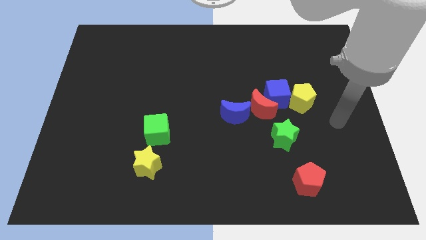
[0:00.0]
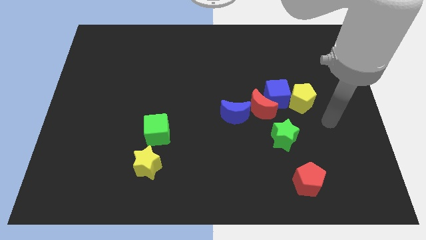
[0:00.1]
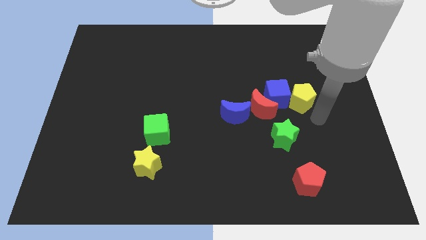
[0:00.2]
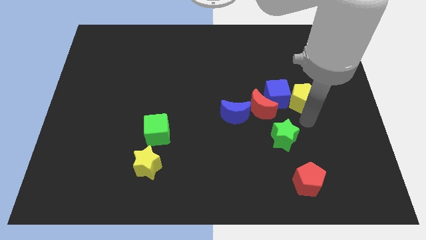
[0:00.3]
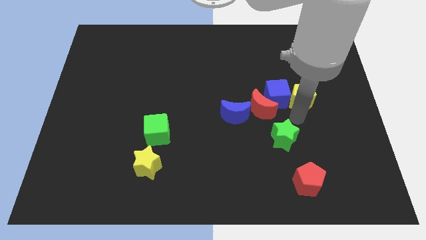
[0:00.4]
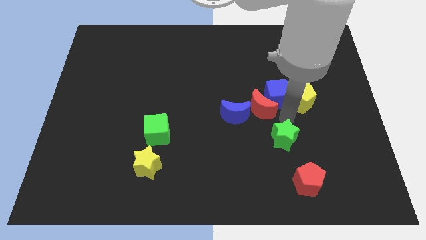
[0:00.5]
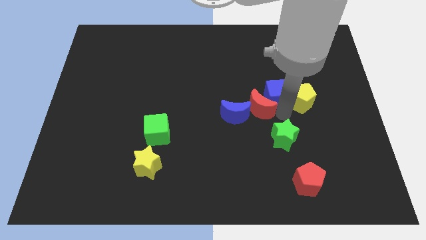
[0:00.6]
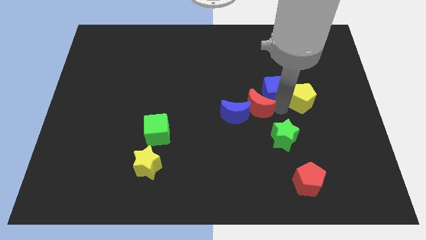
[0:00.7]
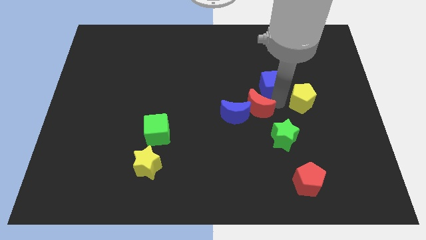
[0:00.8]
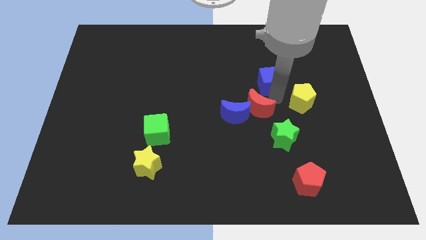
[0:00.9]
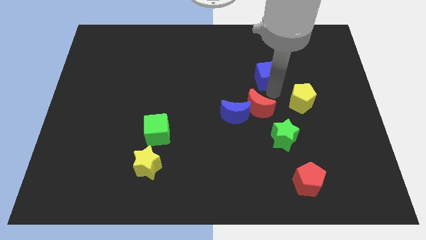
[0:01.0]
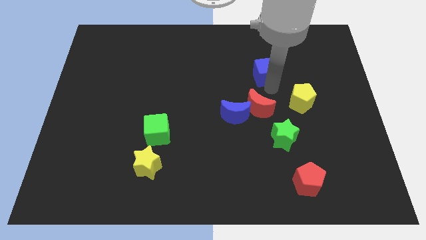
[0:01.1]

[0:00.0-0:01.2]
pull the blue cube apart from the red moon and yellow pentagon

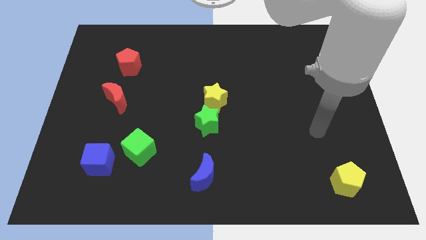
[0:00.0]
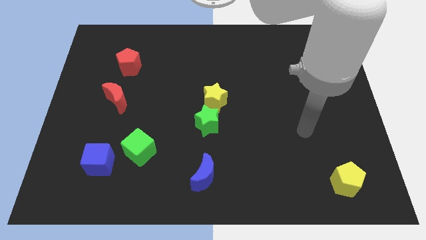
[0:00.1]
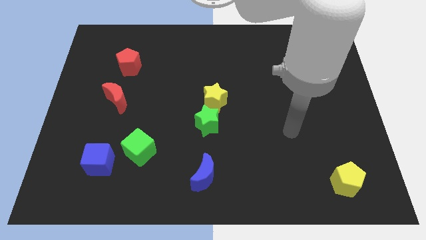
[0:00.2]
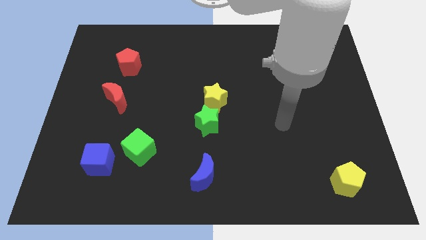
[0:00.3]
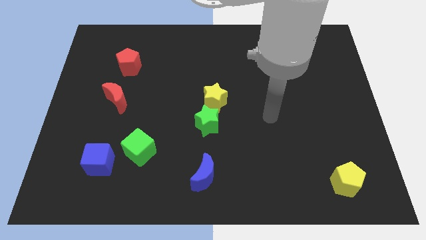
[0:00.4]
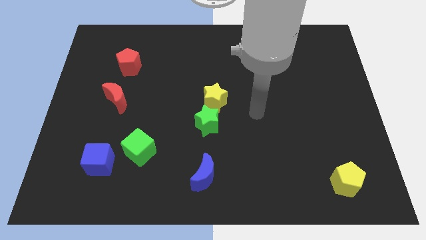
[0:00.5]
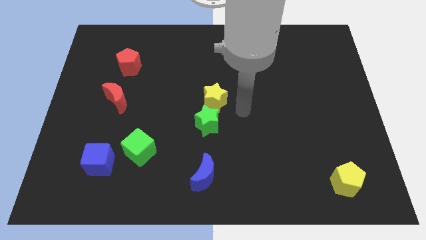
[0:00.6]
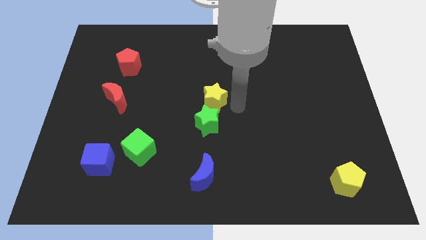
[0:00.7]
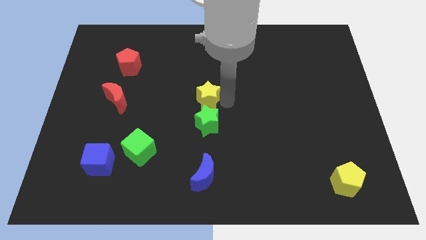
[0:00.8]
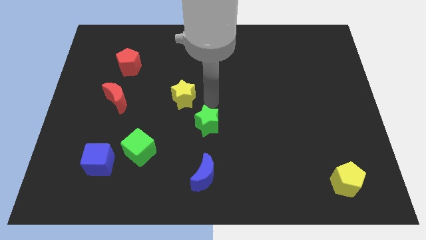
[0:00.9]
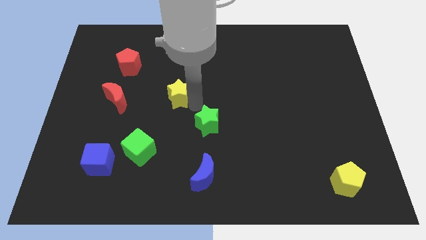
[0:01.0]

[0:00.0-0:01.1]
pull the green star apart from the yellow star

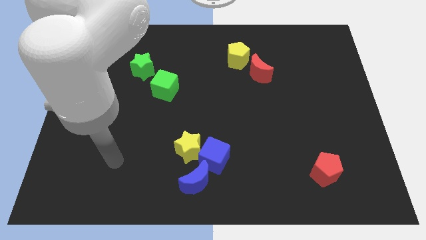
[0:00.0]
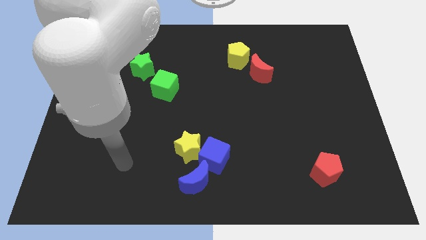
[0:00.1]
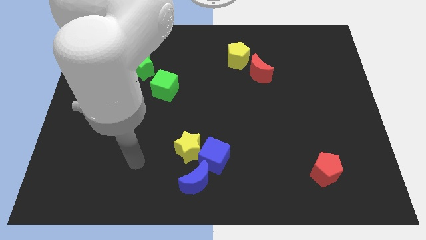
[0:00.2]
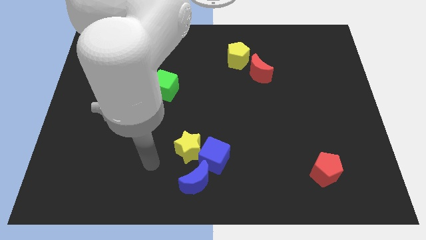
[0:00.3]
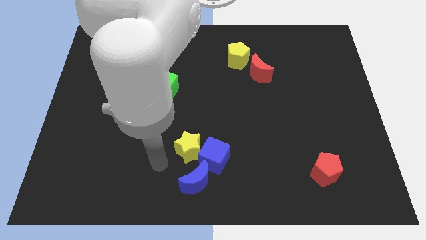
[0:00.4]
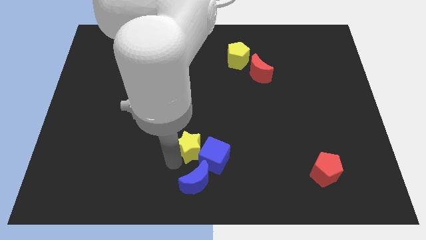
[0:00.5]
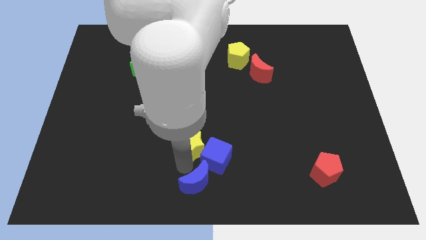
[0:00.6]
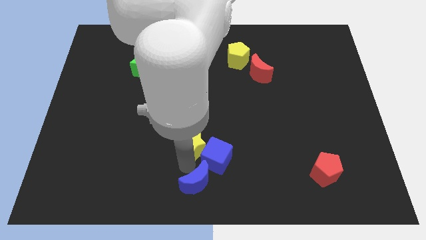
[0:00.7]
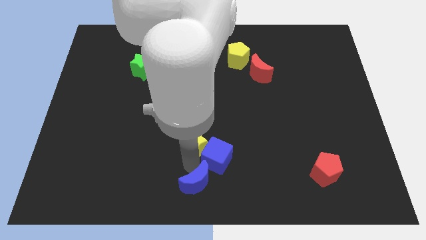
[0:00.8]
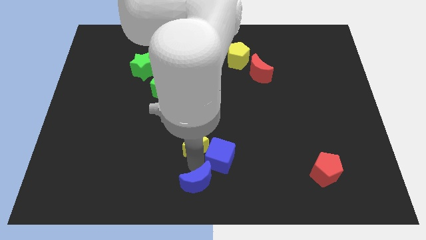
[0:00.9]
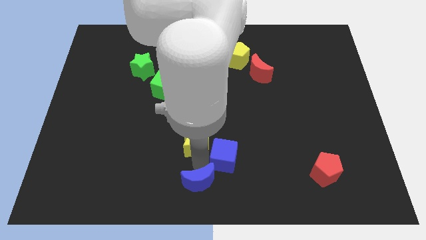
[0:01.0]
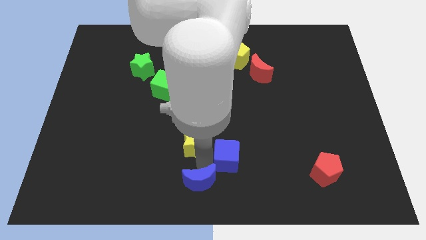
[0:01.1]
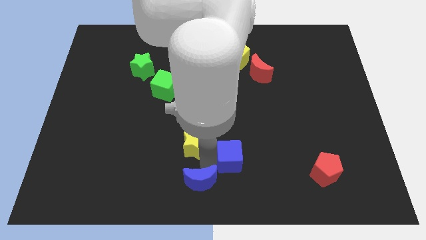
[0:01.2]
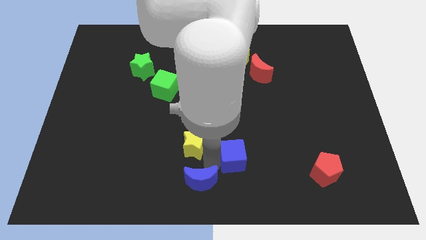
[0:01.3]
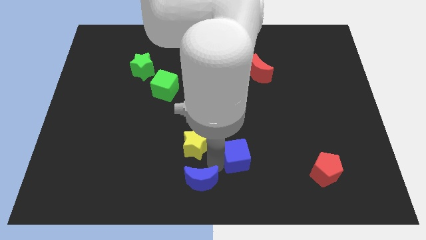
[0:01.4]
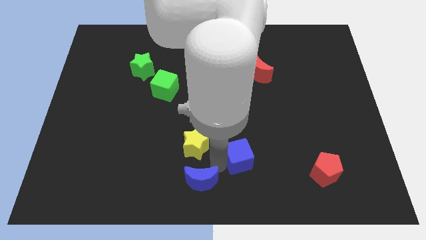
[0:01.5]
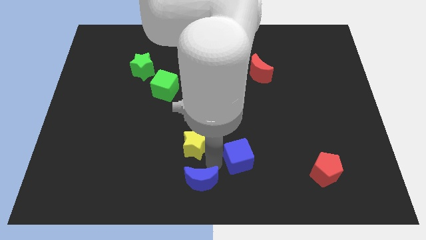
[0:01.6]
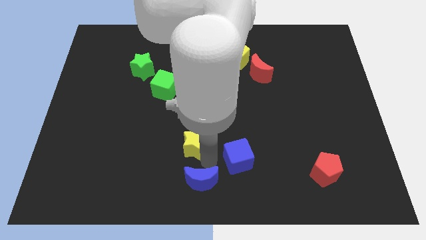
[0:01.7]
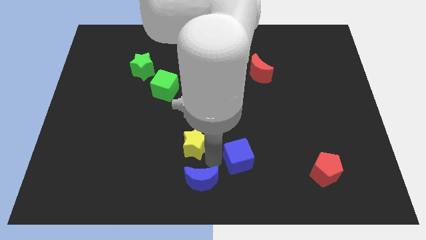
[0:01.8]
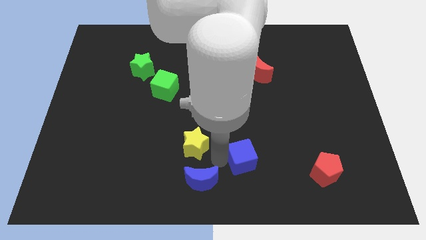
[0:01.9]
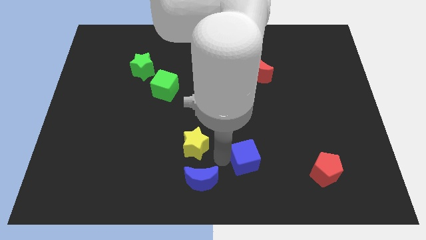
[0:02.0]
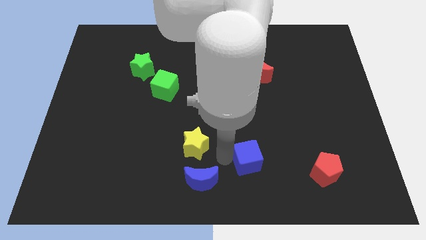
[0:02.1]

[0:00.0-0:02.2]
separate the blue cube from the yellow star and blue moon

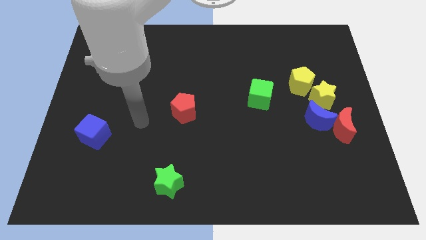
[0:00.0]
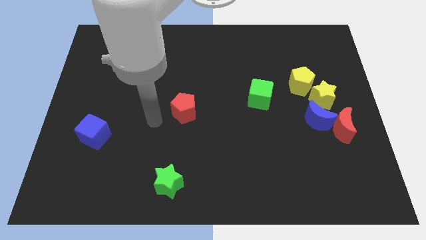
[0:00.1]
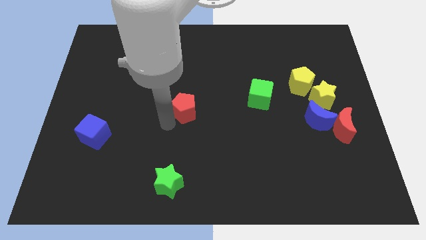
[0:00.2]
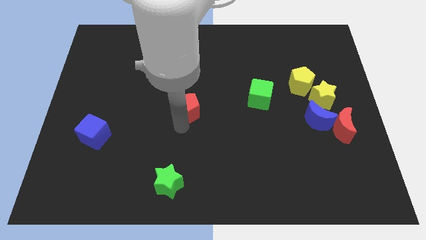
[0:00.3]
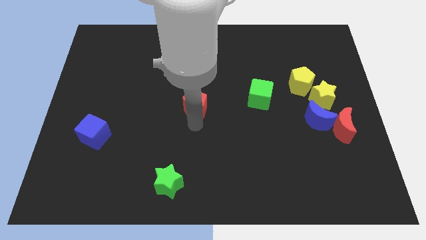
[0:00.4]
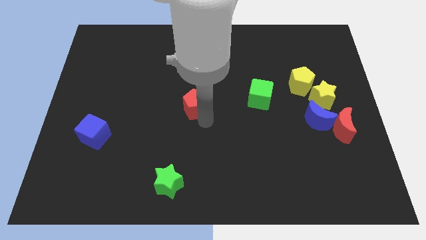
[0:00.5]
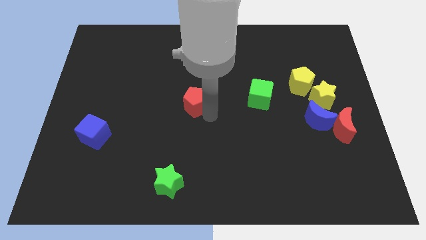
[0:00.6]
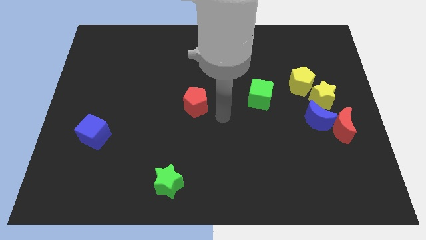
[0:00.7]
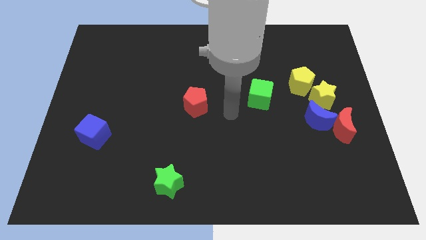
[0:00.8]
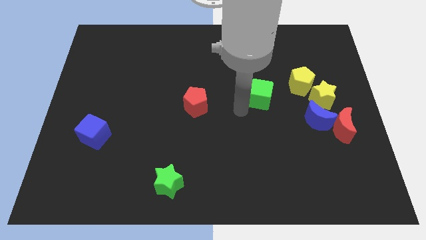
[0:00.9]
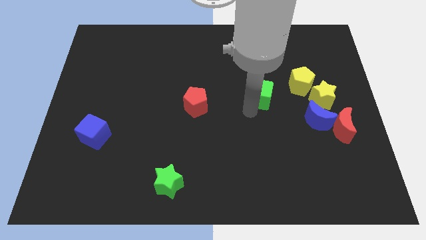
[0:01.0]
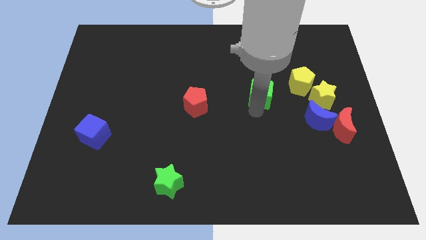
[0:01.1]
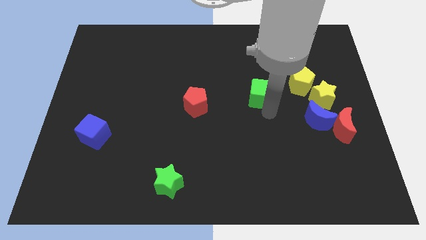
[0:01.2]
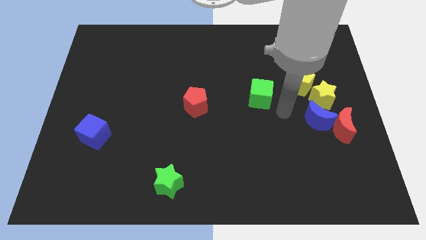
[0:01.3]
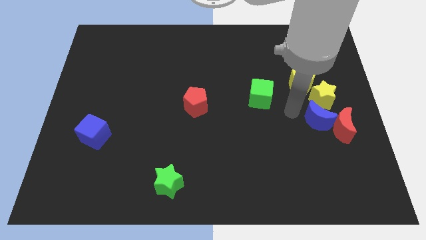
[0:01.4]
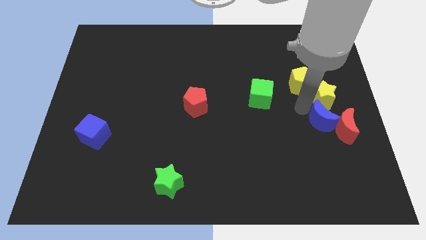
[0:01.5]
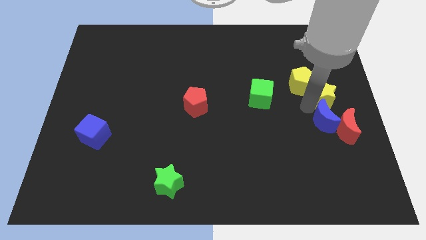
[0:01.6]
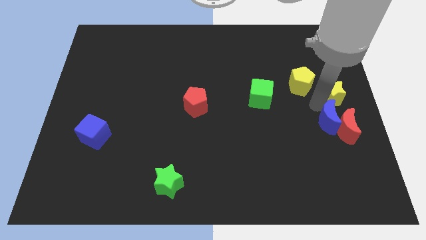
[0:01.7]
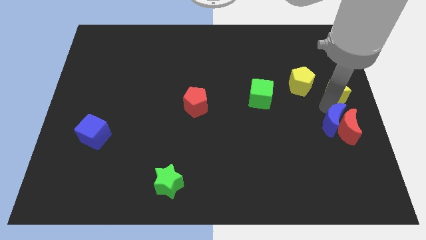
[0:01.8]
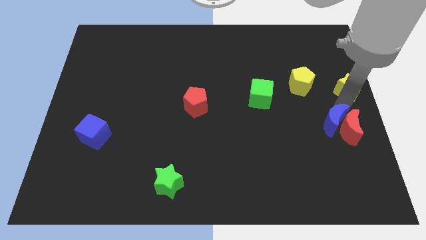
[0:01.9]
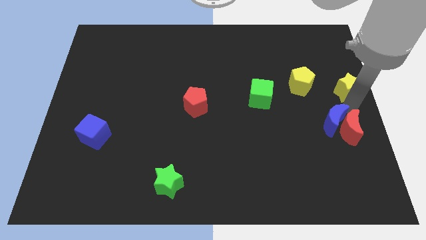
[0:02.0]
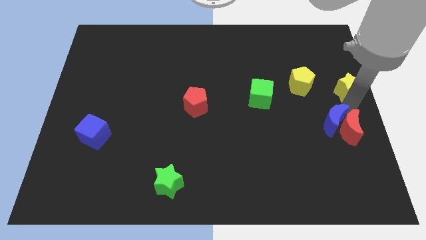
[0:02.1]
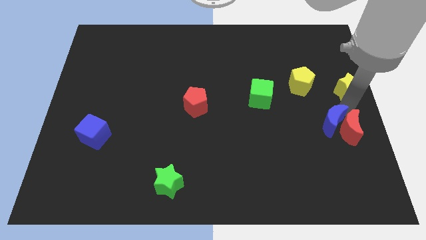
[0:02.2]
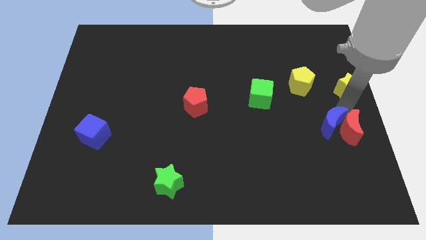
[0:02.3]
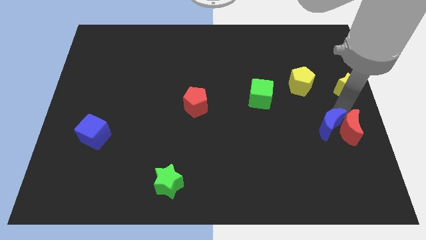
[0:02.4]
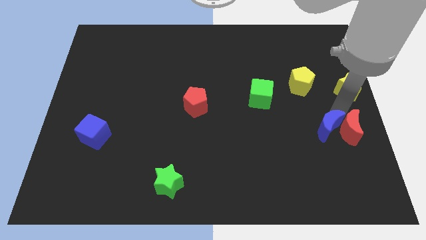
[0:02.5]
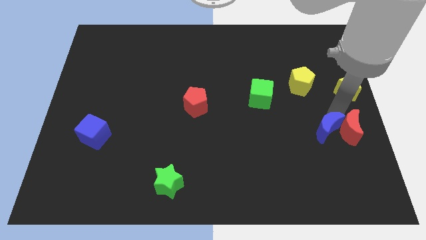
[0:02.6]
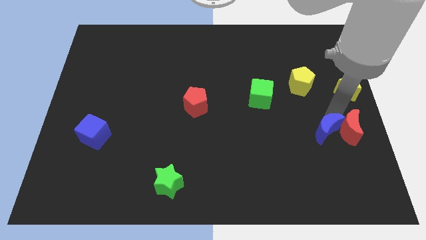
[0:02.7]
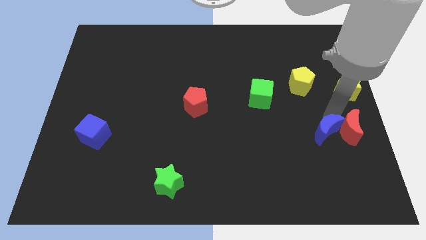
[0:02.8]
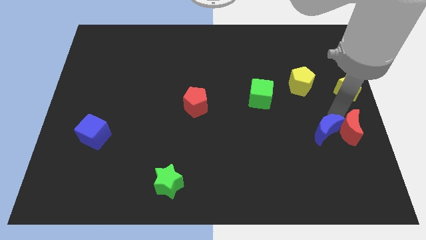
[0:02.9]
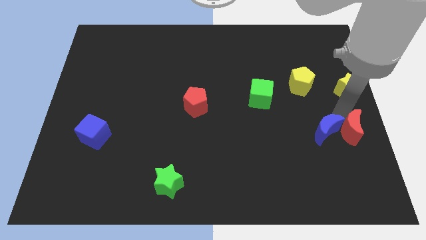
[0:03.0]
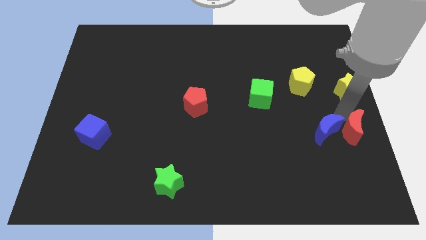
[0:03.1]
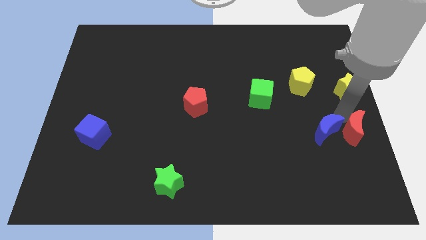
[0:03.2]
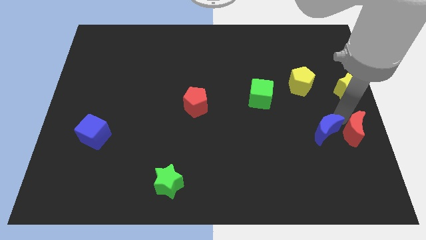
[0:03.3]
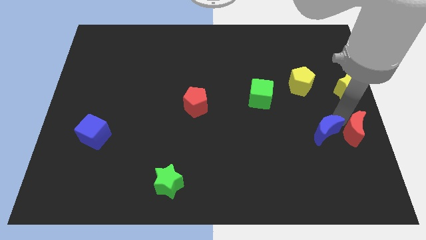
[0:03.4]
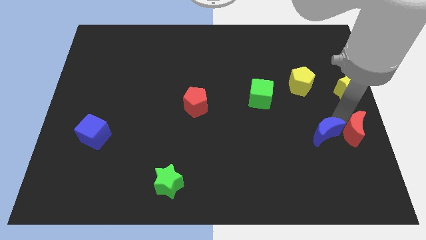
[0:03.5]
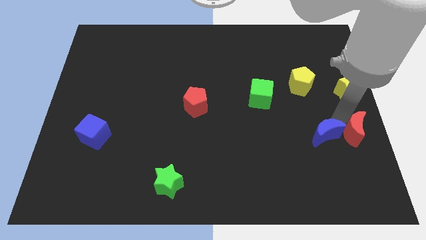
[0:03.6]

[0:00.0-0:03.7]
move the blue moon away from the red moon and yellow star

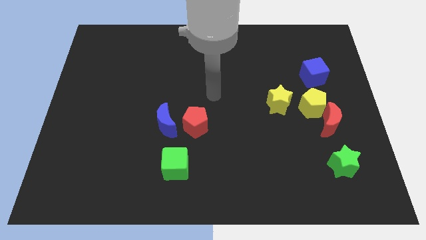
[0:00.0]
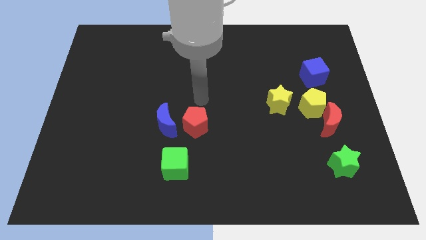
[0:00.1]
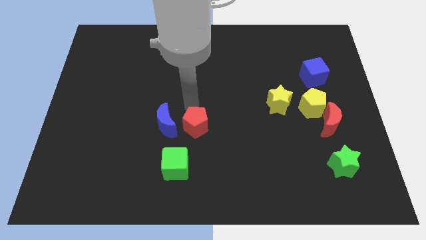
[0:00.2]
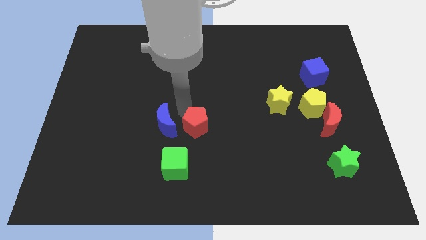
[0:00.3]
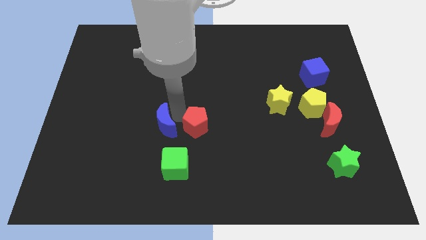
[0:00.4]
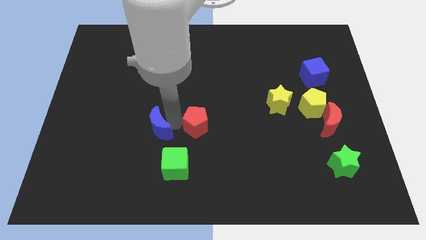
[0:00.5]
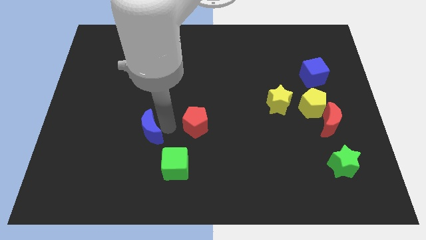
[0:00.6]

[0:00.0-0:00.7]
move the red pentagon away from the blue moon

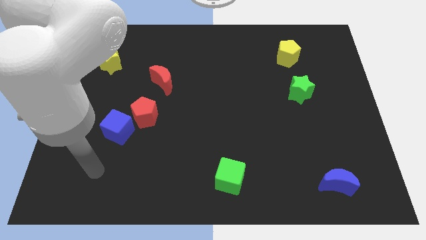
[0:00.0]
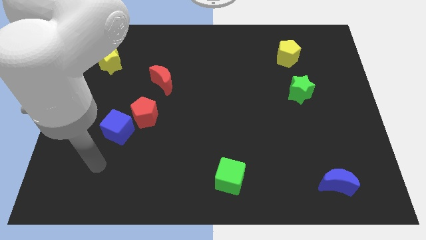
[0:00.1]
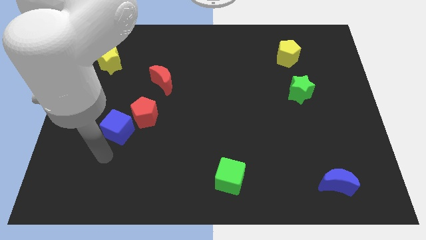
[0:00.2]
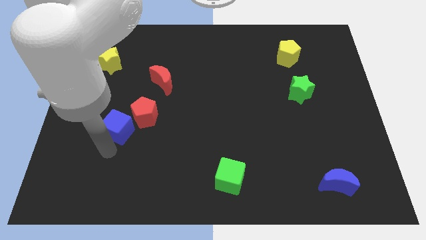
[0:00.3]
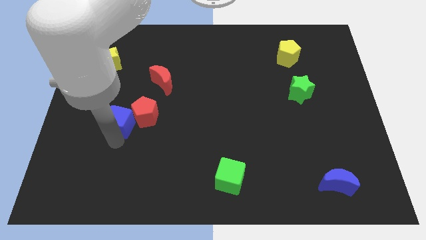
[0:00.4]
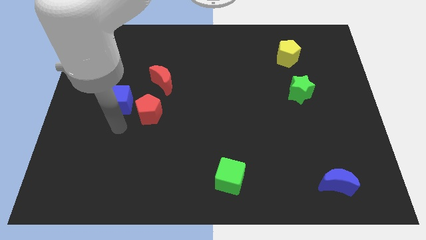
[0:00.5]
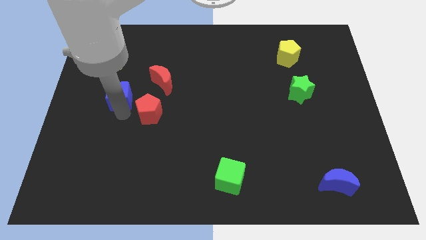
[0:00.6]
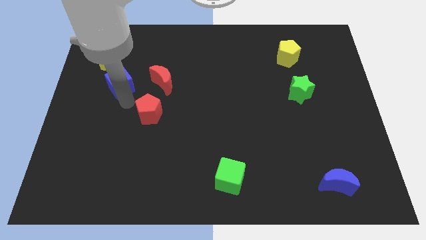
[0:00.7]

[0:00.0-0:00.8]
move the red pentagon away from the blue cube
